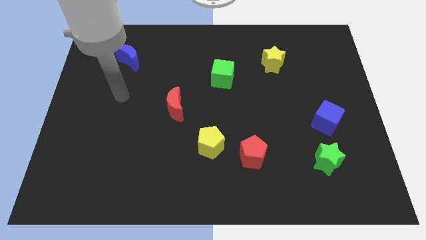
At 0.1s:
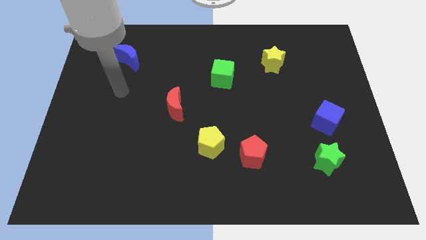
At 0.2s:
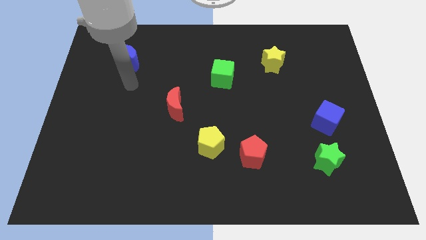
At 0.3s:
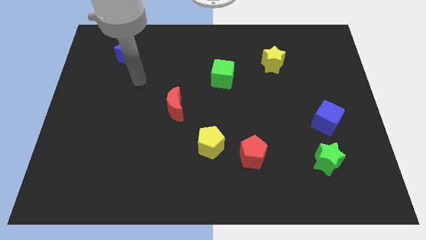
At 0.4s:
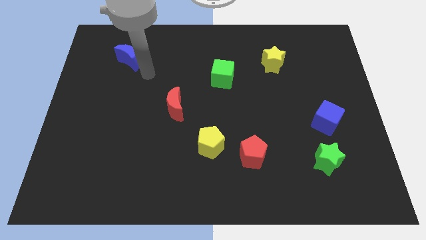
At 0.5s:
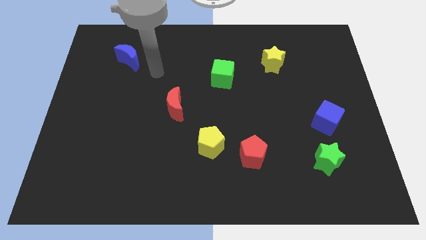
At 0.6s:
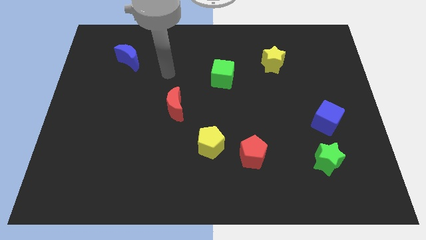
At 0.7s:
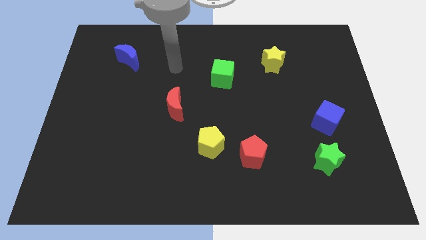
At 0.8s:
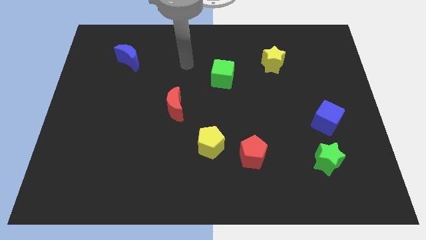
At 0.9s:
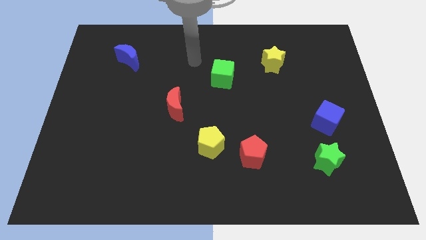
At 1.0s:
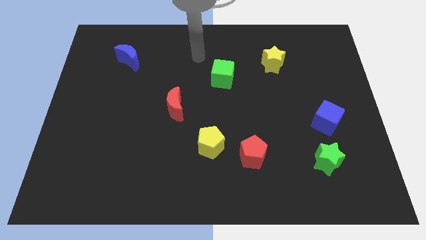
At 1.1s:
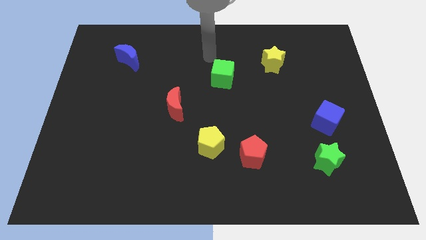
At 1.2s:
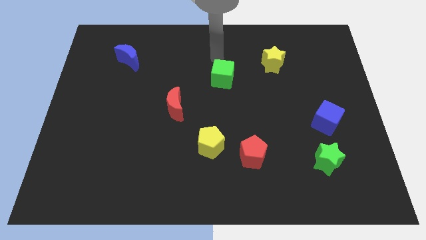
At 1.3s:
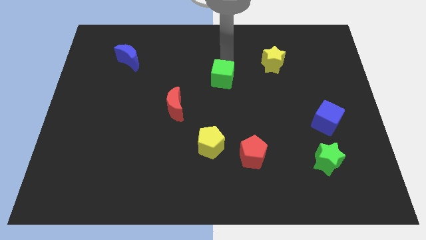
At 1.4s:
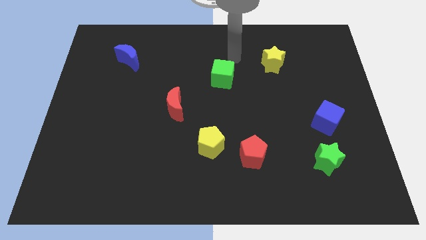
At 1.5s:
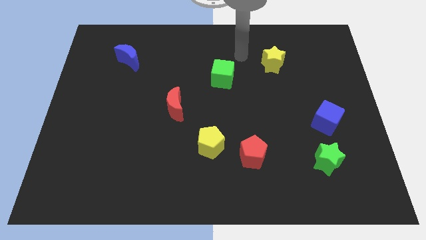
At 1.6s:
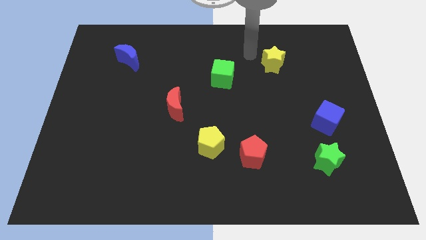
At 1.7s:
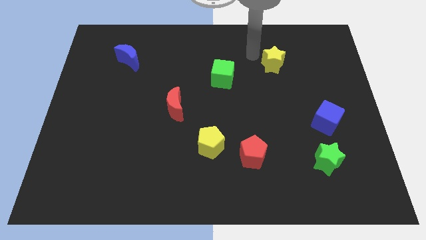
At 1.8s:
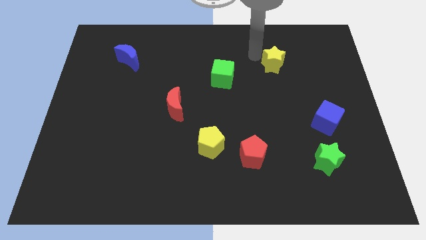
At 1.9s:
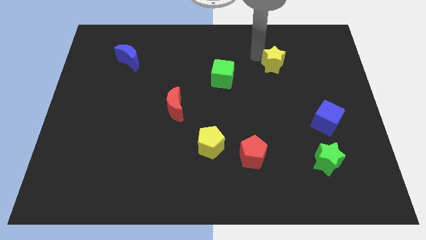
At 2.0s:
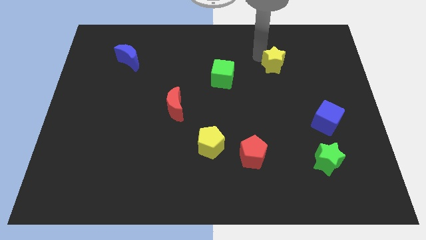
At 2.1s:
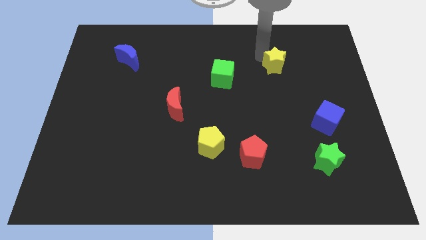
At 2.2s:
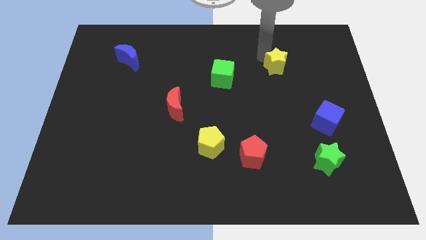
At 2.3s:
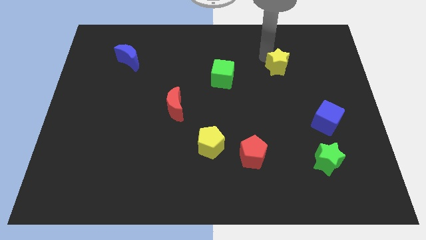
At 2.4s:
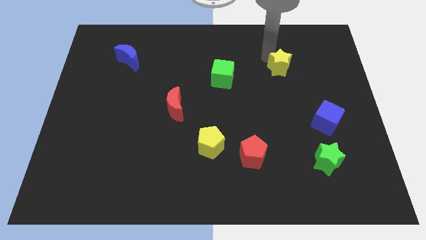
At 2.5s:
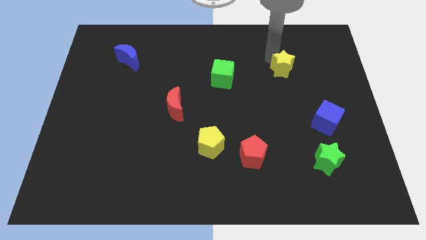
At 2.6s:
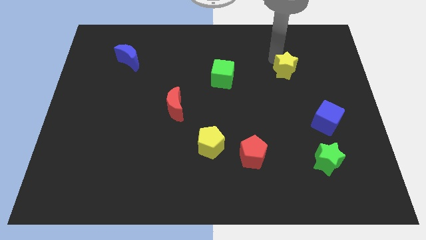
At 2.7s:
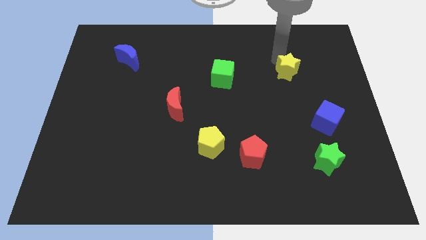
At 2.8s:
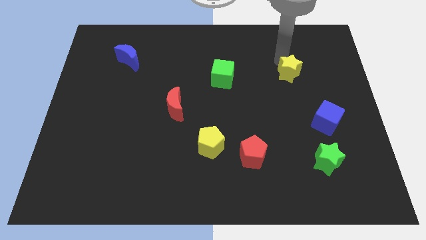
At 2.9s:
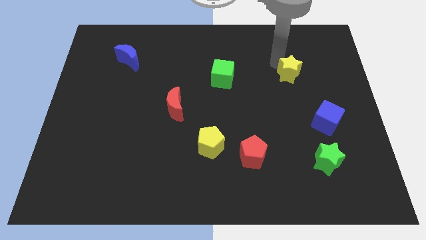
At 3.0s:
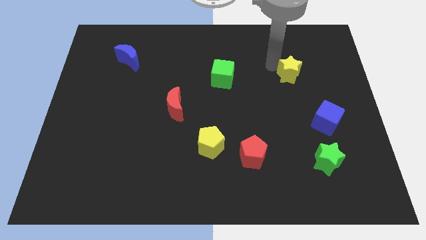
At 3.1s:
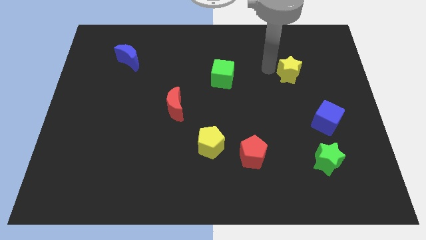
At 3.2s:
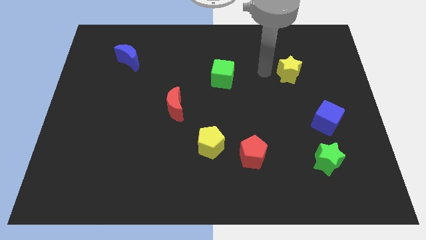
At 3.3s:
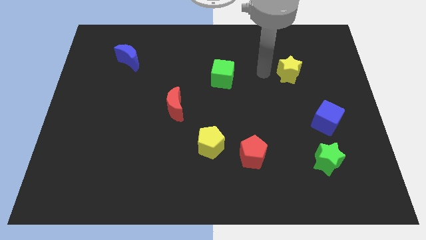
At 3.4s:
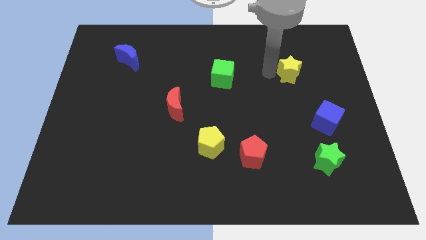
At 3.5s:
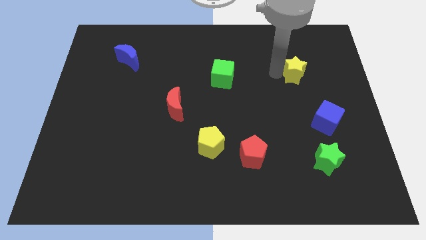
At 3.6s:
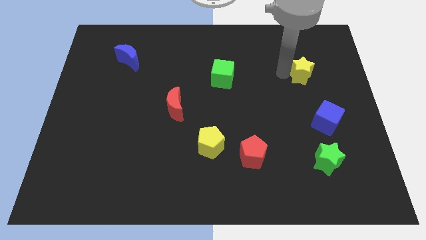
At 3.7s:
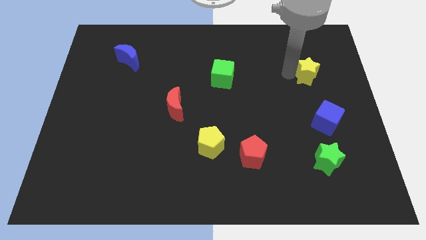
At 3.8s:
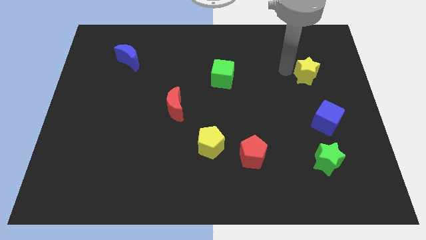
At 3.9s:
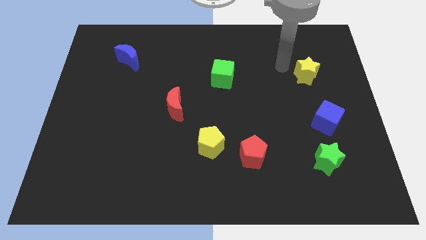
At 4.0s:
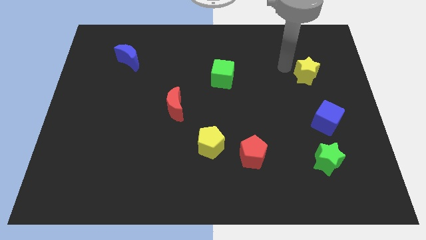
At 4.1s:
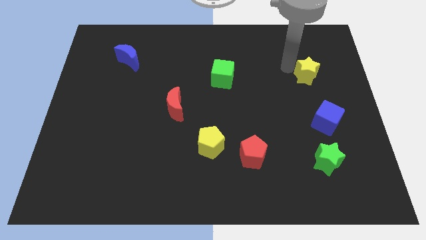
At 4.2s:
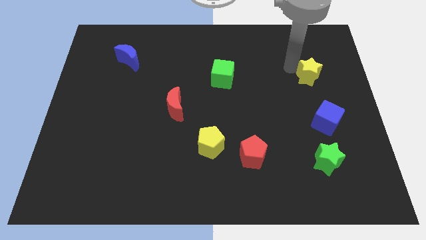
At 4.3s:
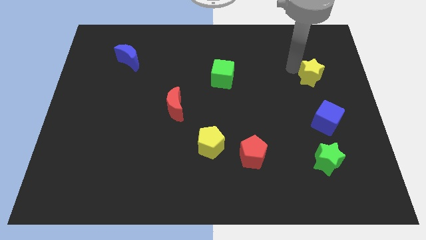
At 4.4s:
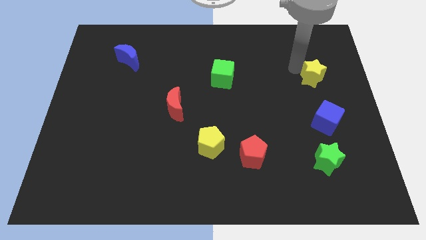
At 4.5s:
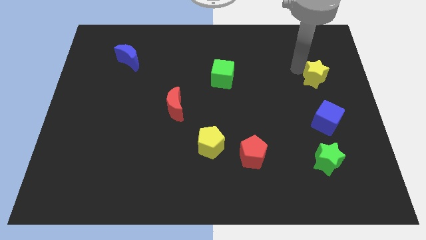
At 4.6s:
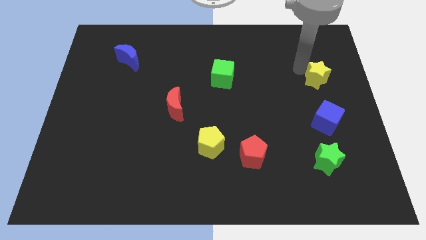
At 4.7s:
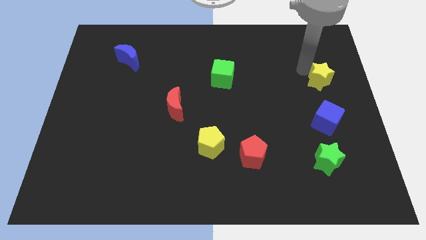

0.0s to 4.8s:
push the yellow star to the center right

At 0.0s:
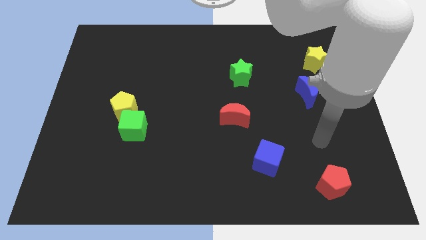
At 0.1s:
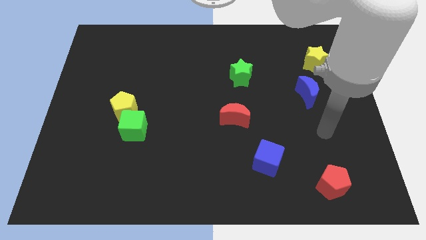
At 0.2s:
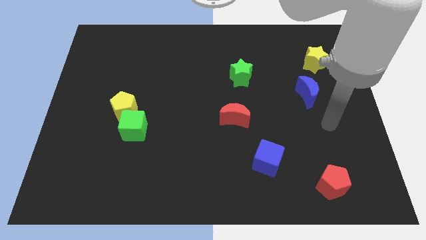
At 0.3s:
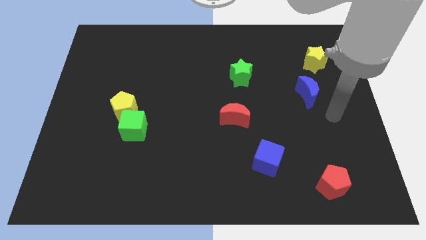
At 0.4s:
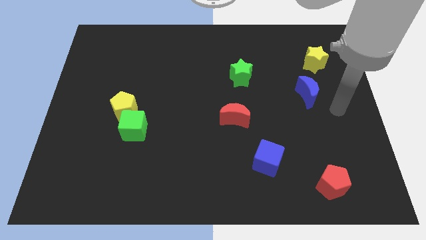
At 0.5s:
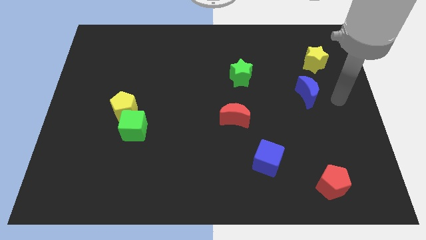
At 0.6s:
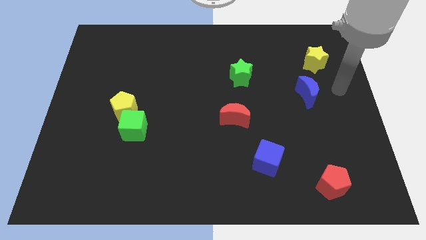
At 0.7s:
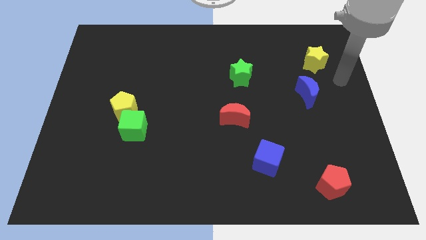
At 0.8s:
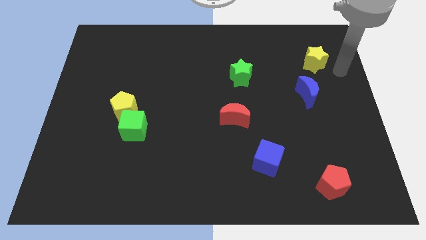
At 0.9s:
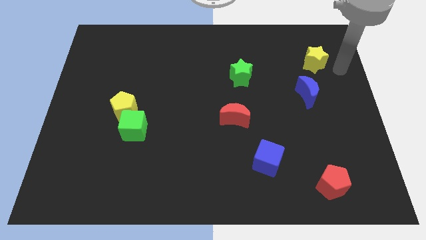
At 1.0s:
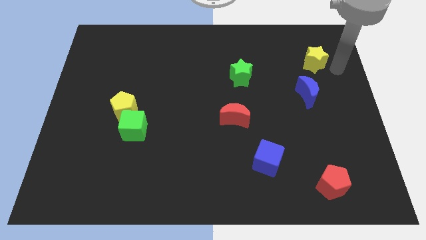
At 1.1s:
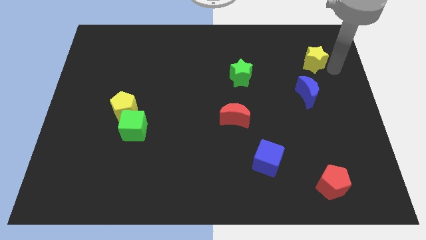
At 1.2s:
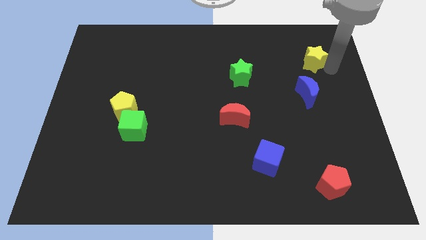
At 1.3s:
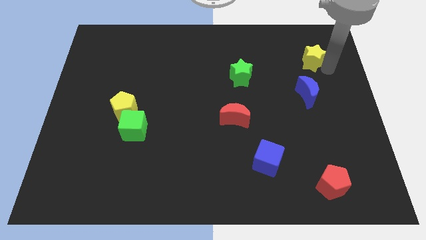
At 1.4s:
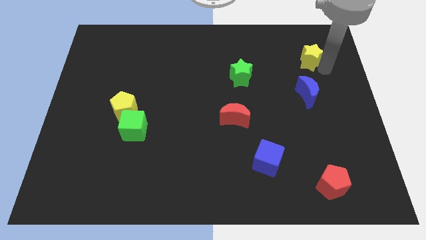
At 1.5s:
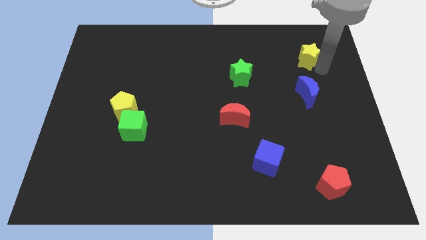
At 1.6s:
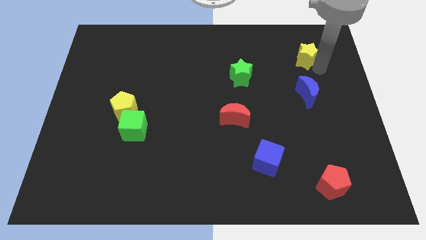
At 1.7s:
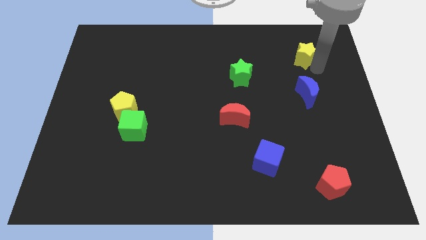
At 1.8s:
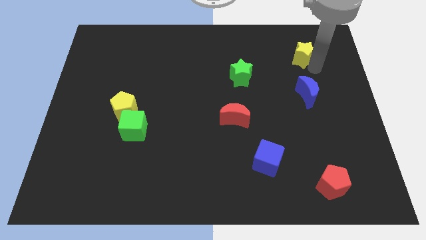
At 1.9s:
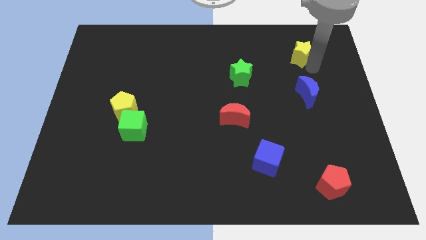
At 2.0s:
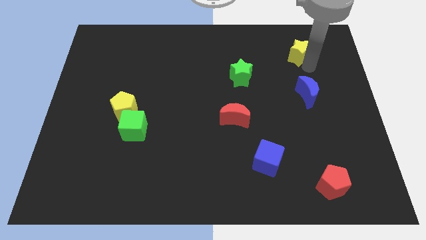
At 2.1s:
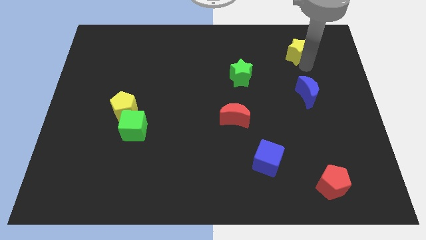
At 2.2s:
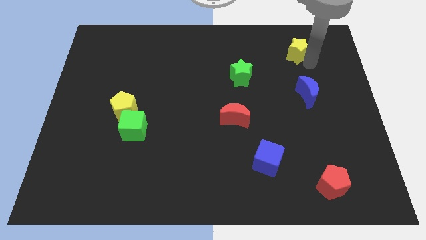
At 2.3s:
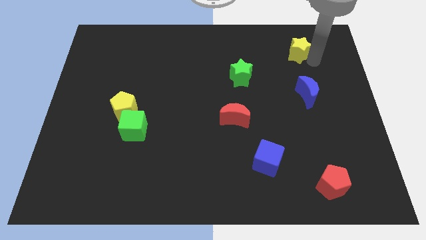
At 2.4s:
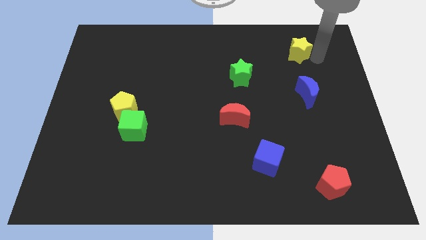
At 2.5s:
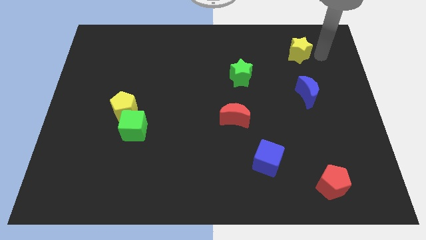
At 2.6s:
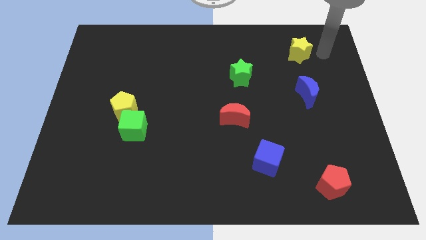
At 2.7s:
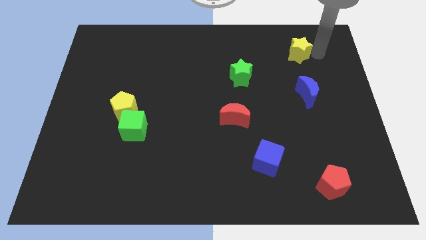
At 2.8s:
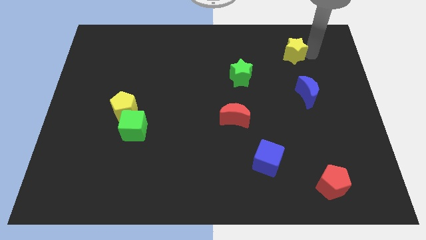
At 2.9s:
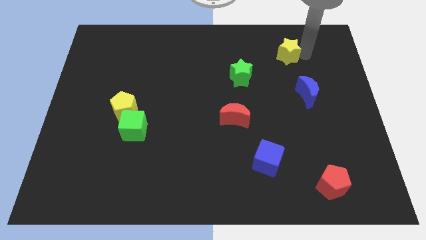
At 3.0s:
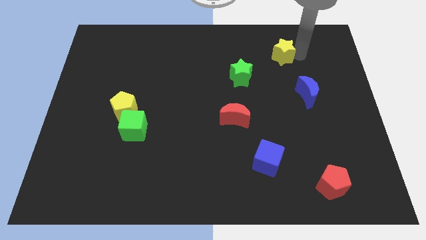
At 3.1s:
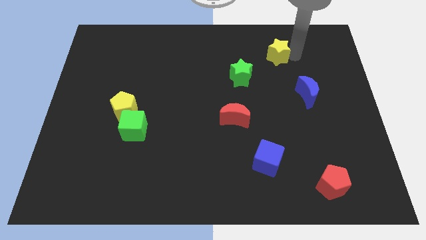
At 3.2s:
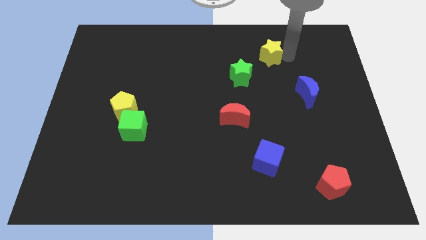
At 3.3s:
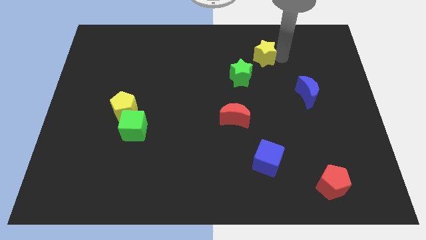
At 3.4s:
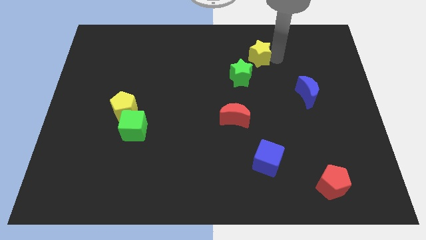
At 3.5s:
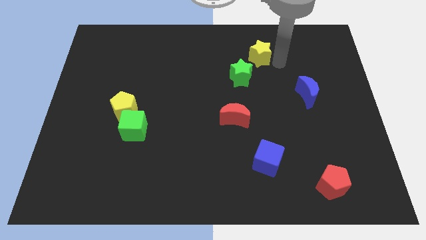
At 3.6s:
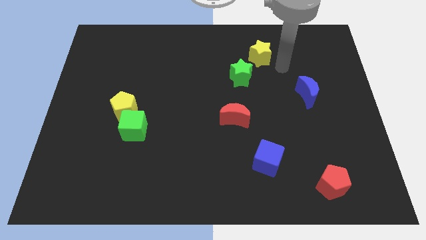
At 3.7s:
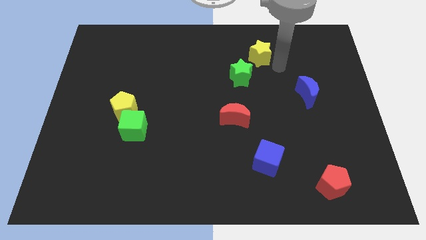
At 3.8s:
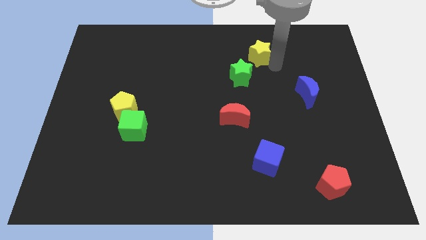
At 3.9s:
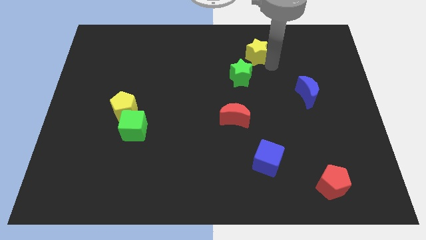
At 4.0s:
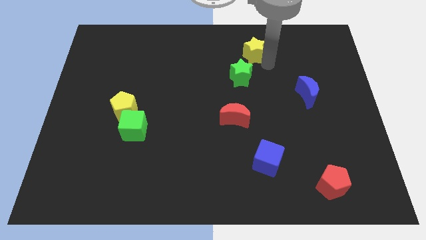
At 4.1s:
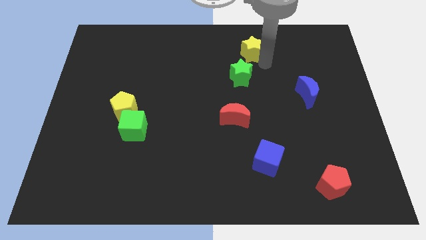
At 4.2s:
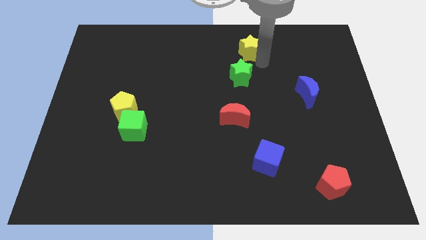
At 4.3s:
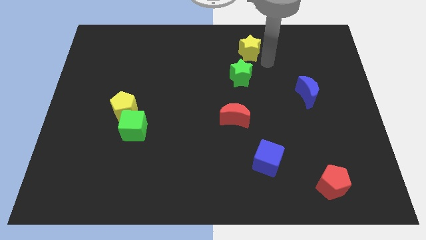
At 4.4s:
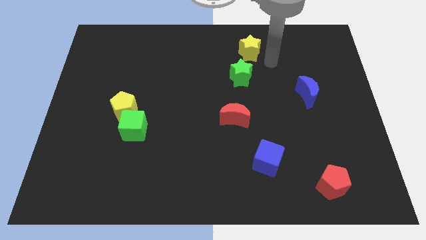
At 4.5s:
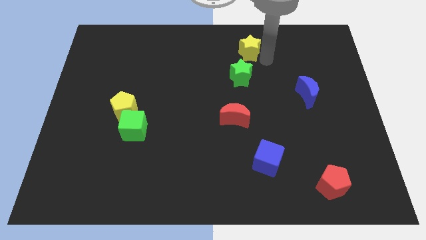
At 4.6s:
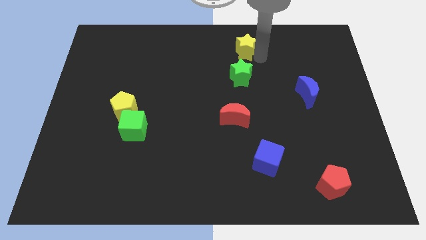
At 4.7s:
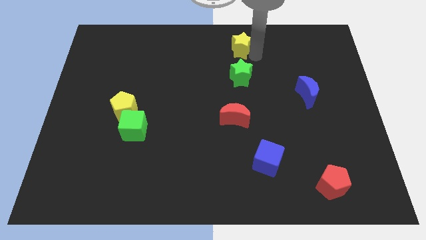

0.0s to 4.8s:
push the yellow star to the top side
